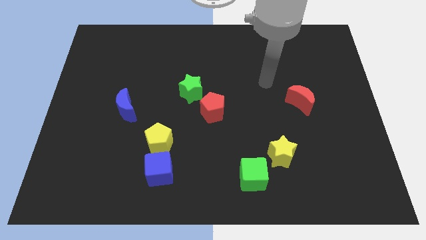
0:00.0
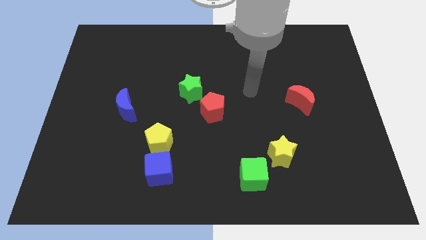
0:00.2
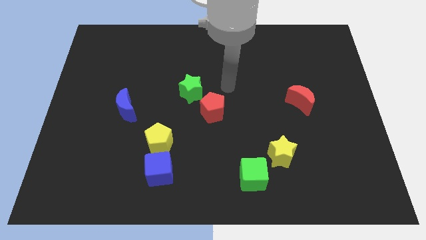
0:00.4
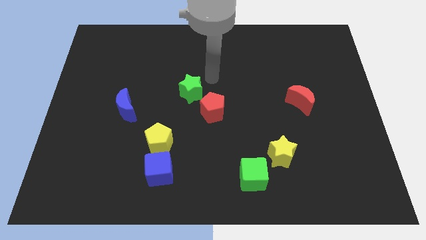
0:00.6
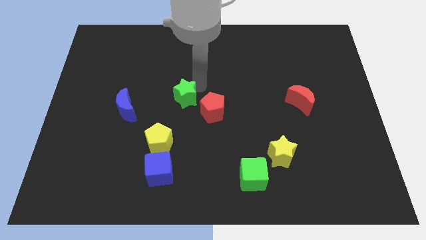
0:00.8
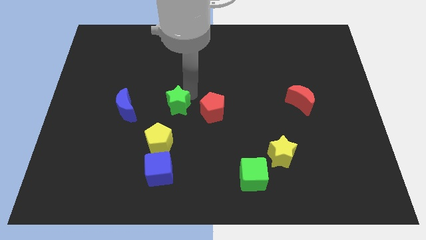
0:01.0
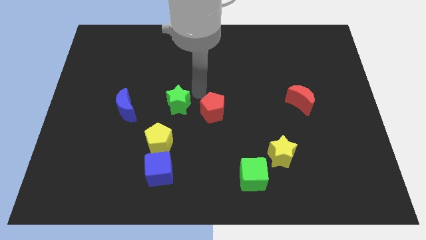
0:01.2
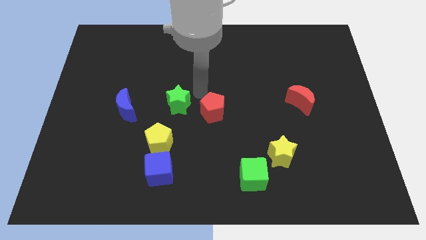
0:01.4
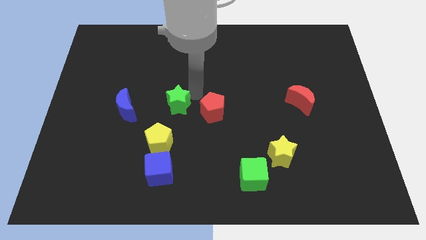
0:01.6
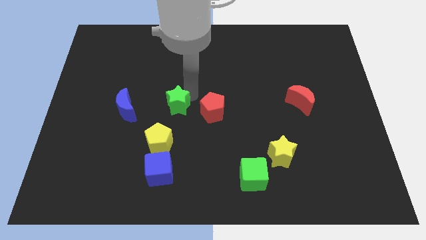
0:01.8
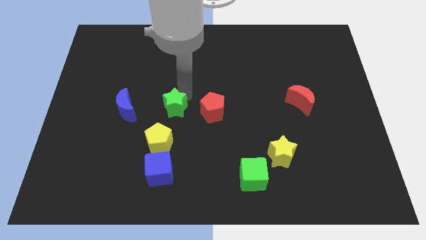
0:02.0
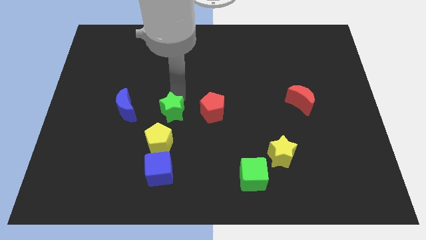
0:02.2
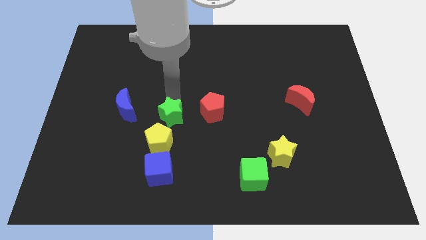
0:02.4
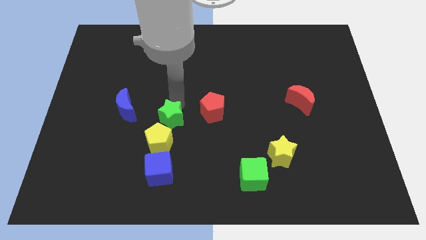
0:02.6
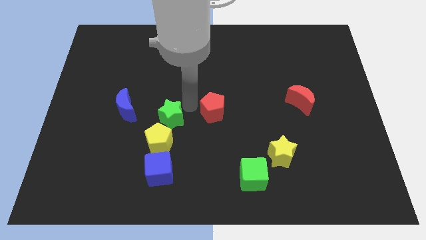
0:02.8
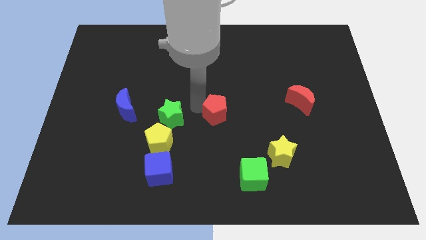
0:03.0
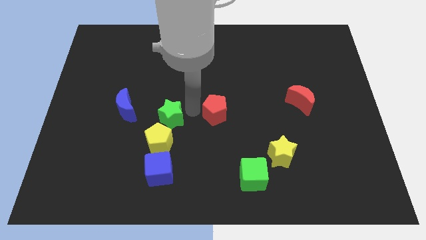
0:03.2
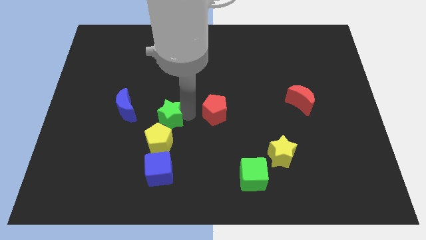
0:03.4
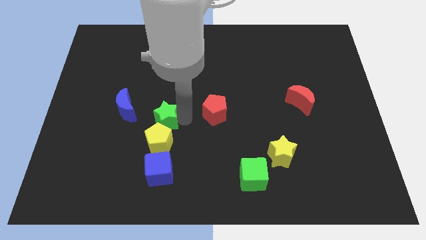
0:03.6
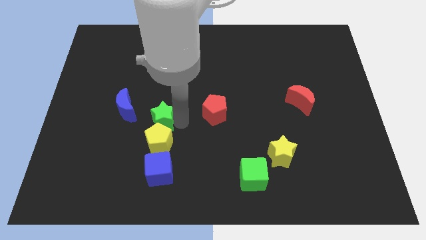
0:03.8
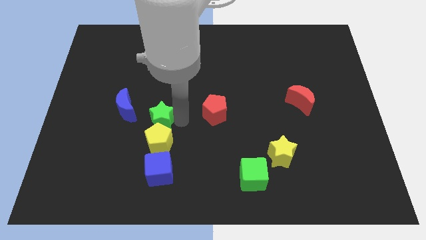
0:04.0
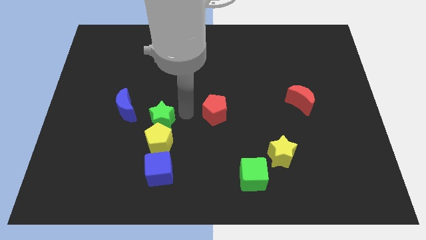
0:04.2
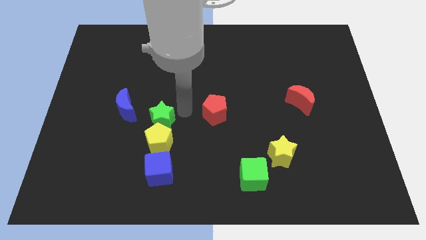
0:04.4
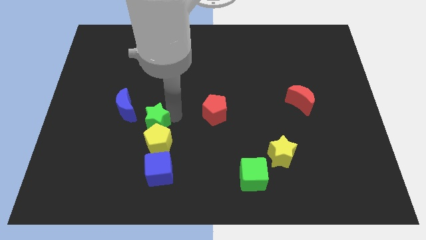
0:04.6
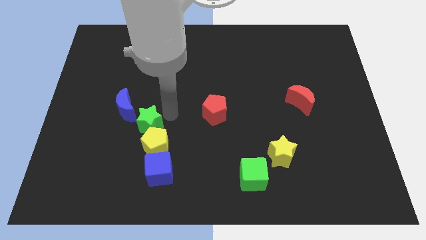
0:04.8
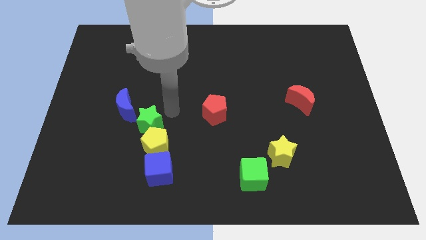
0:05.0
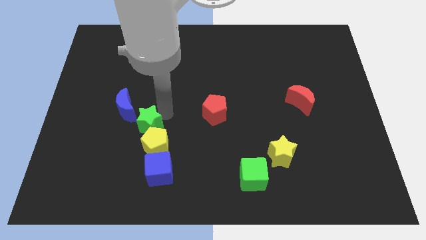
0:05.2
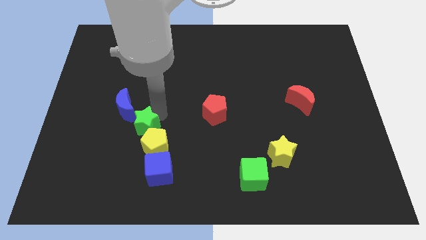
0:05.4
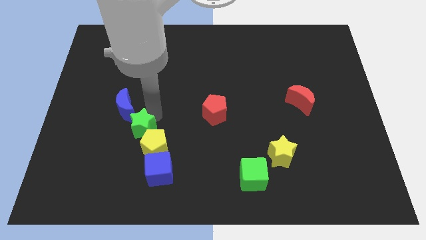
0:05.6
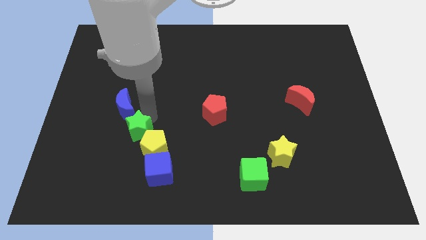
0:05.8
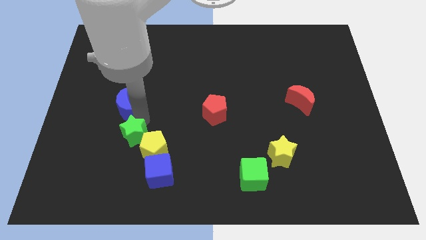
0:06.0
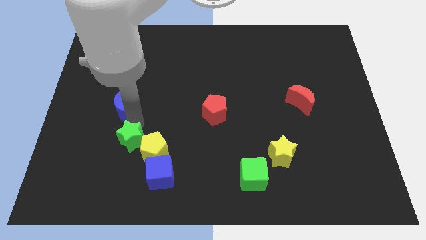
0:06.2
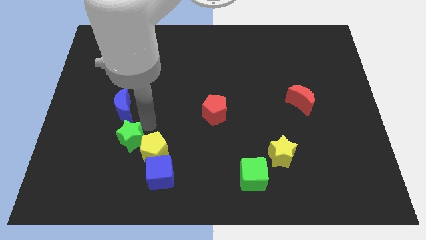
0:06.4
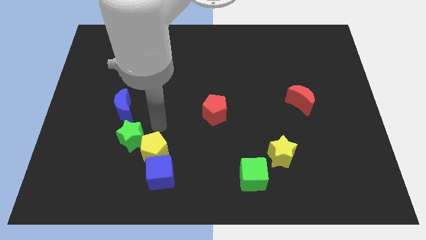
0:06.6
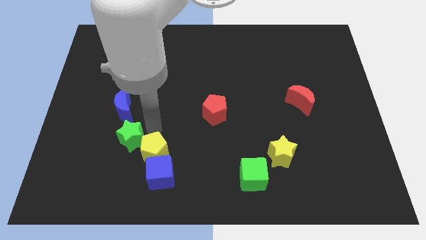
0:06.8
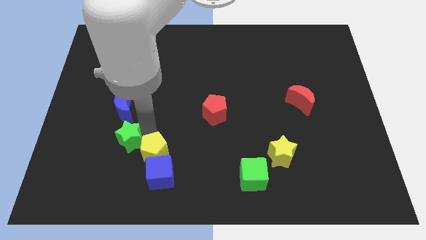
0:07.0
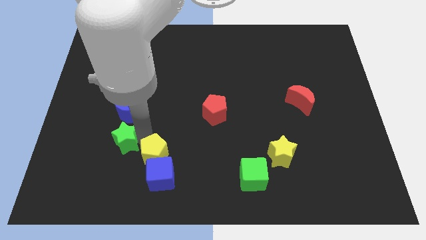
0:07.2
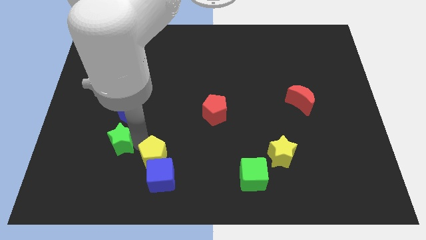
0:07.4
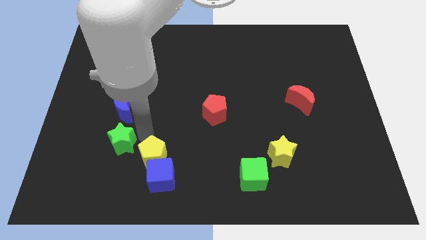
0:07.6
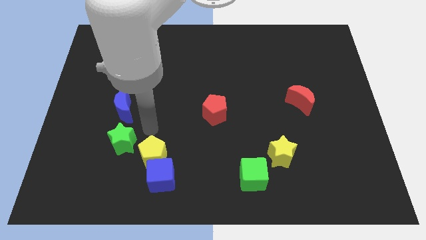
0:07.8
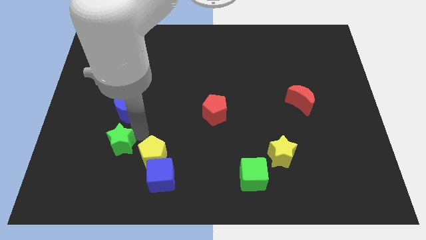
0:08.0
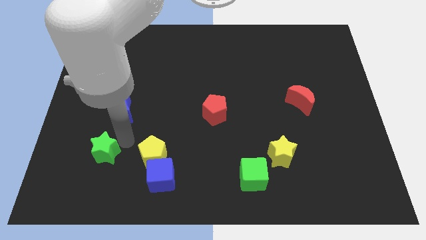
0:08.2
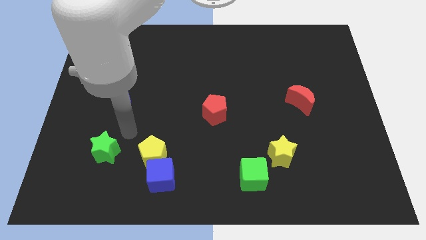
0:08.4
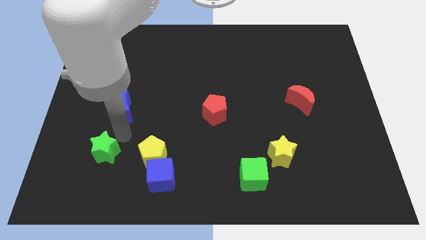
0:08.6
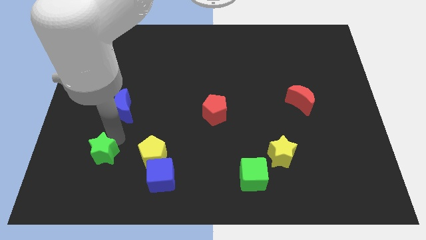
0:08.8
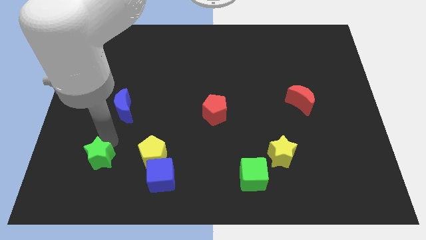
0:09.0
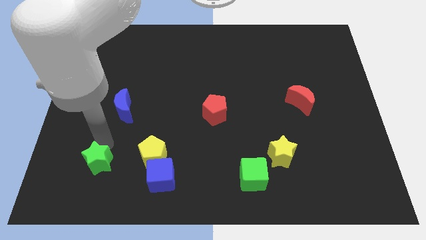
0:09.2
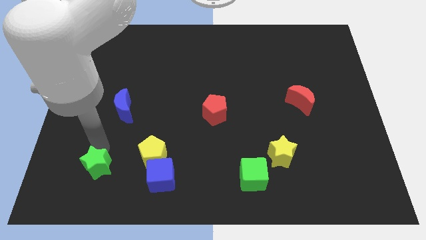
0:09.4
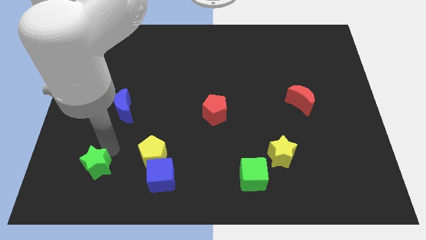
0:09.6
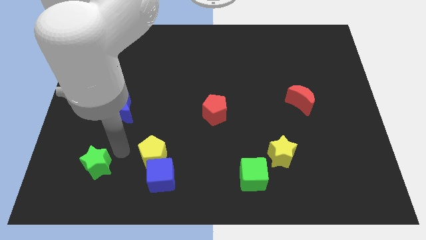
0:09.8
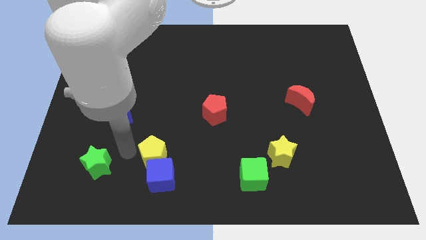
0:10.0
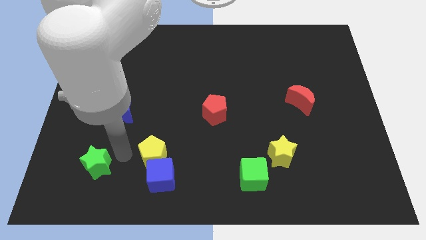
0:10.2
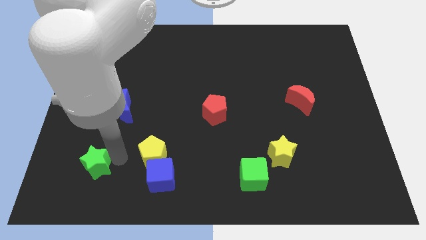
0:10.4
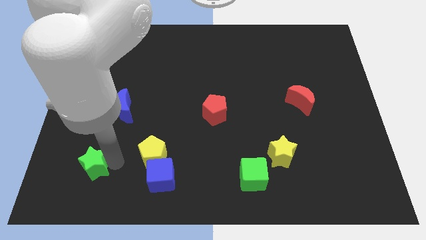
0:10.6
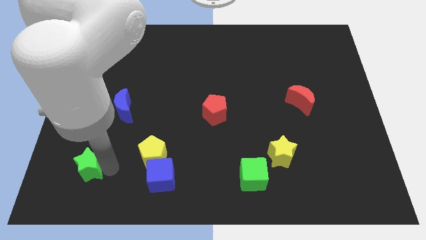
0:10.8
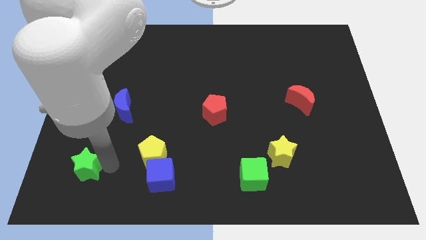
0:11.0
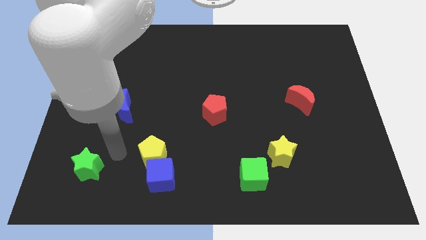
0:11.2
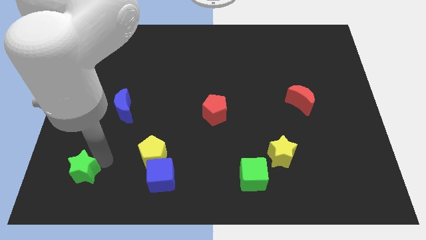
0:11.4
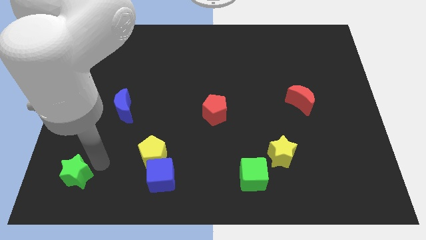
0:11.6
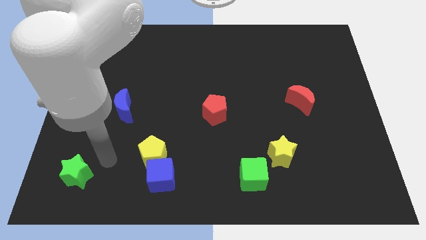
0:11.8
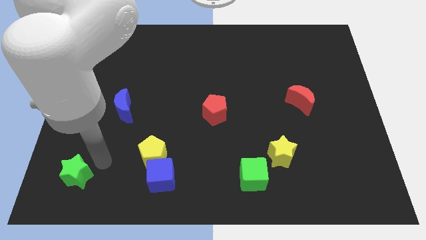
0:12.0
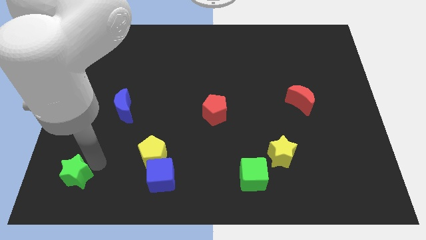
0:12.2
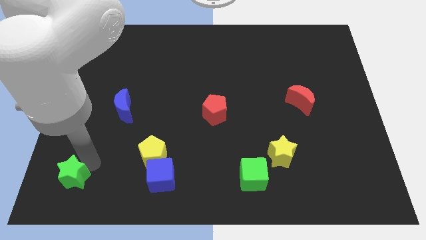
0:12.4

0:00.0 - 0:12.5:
put the green star to the lower left corner
